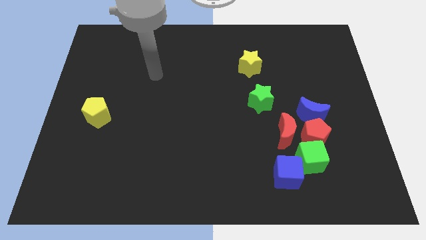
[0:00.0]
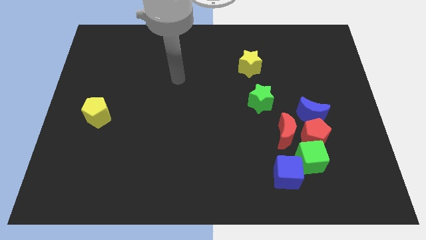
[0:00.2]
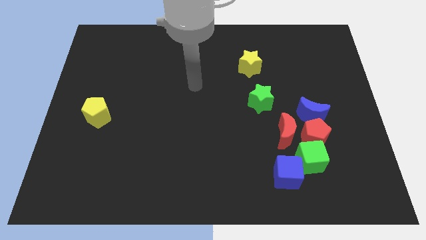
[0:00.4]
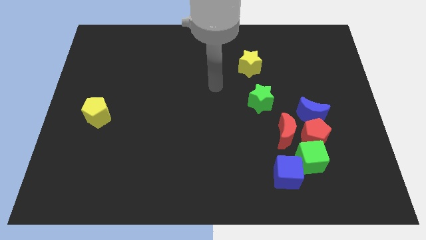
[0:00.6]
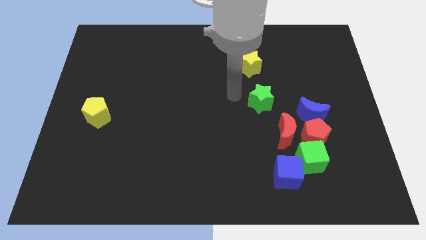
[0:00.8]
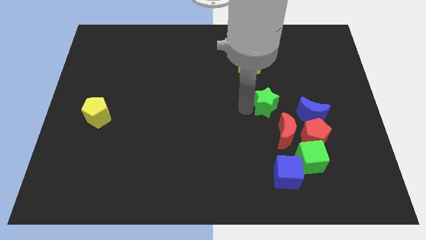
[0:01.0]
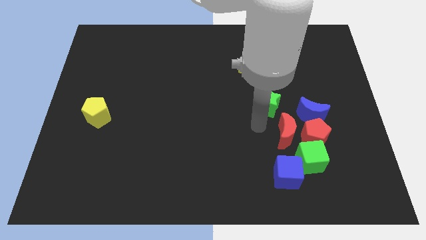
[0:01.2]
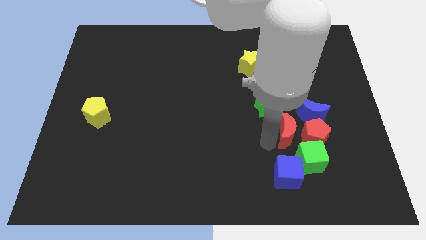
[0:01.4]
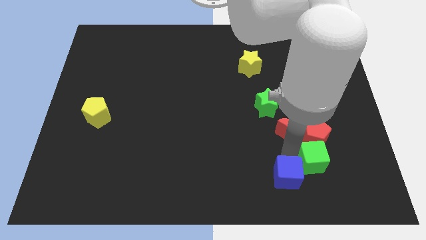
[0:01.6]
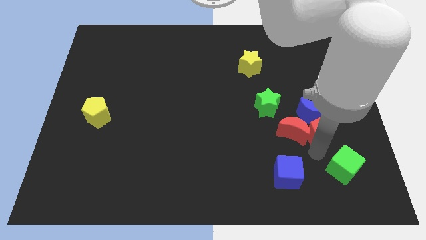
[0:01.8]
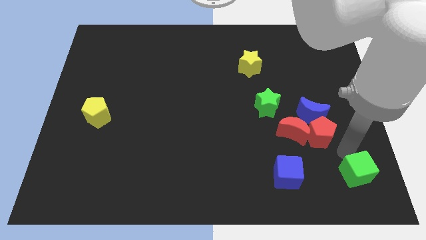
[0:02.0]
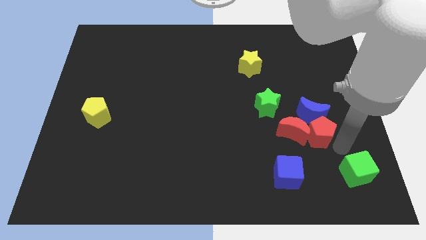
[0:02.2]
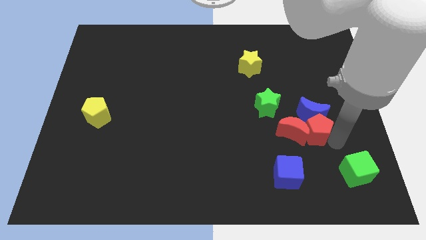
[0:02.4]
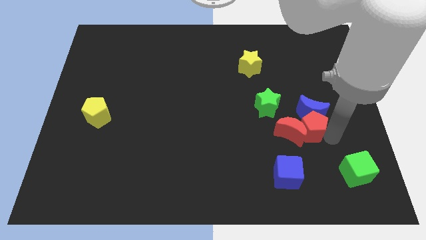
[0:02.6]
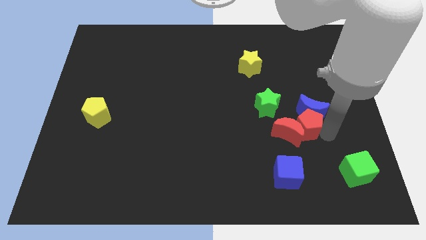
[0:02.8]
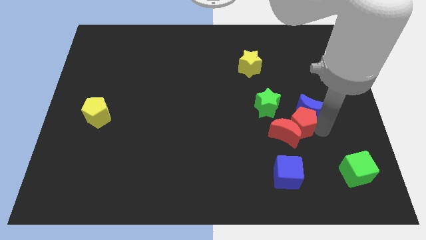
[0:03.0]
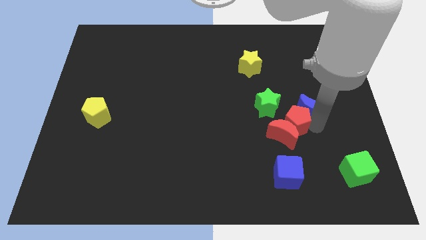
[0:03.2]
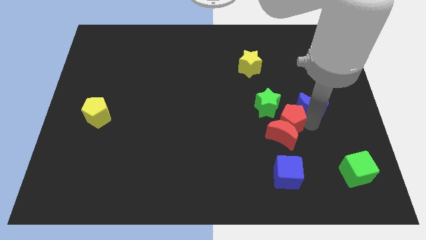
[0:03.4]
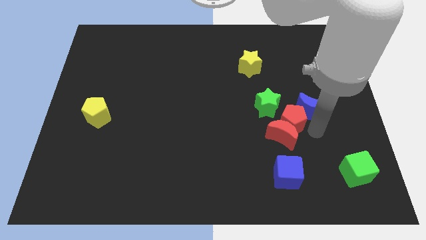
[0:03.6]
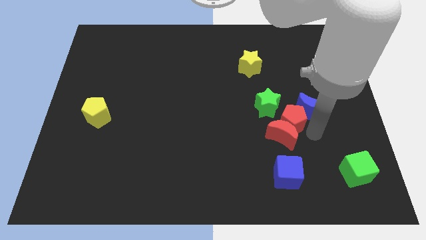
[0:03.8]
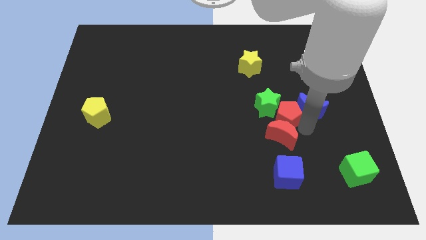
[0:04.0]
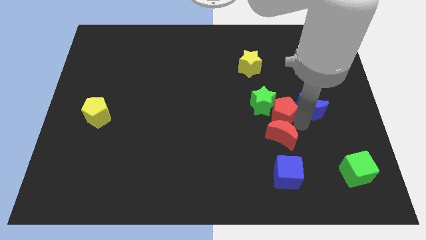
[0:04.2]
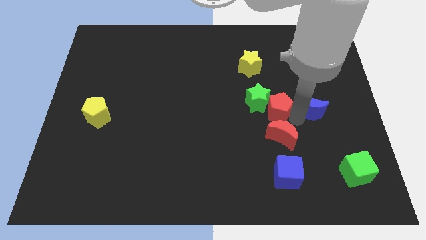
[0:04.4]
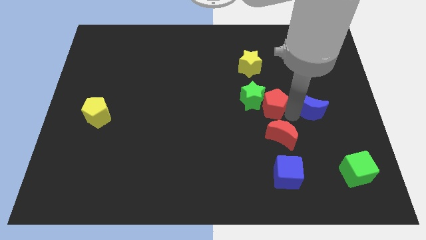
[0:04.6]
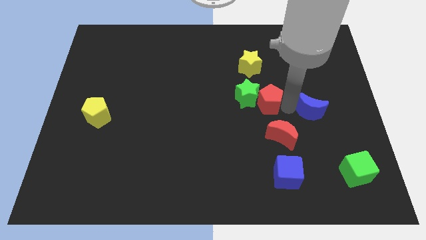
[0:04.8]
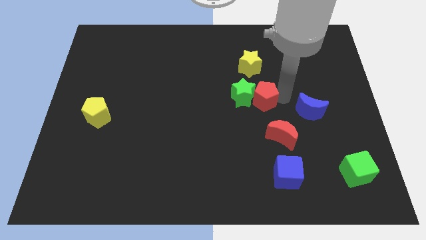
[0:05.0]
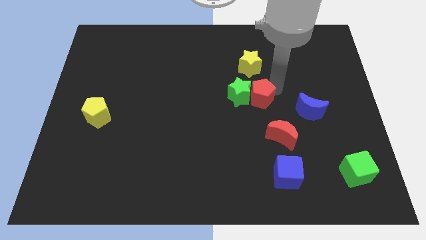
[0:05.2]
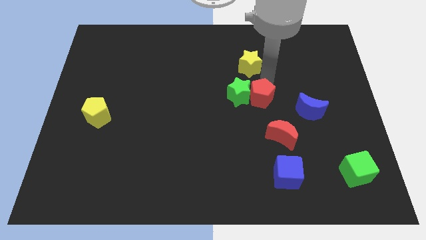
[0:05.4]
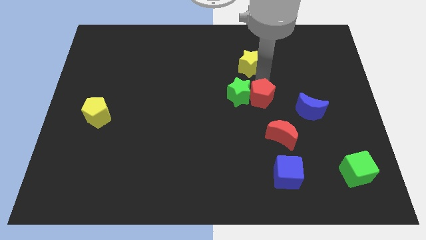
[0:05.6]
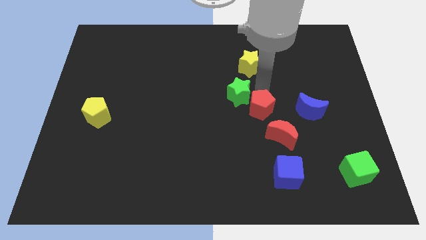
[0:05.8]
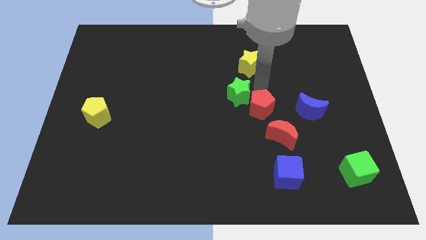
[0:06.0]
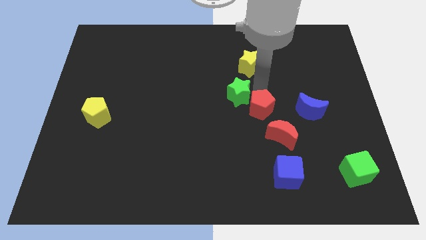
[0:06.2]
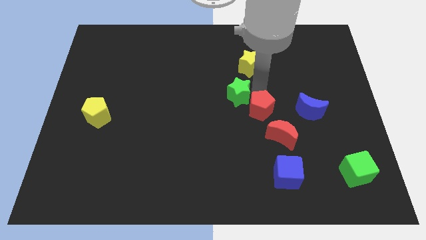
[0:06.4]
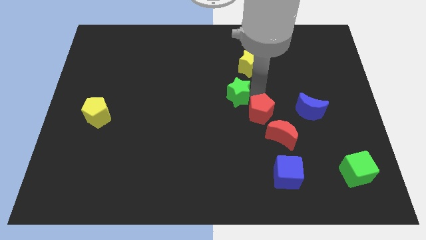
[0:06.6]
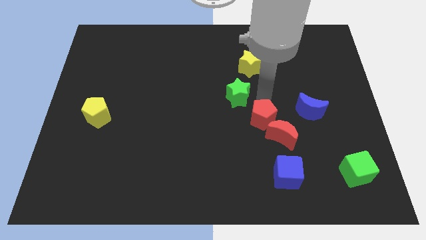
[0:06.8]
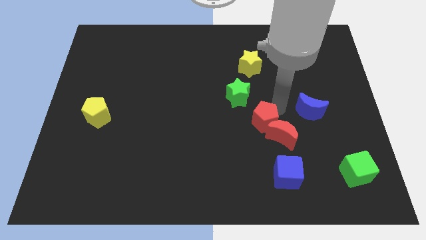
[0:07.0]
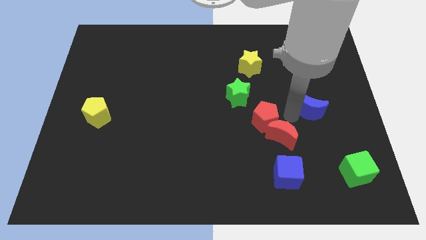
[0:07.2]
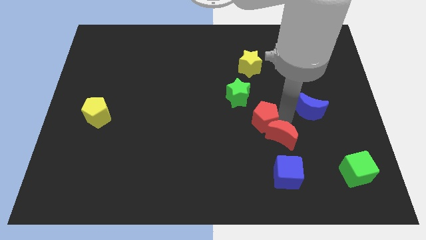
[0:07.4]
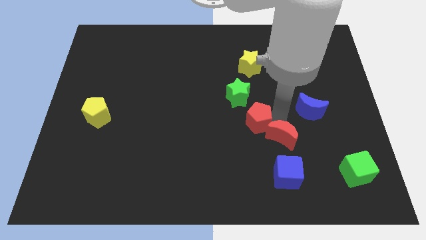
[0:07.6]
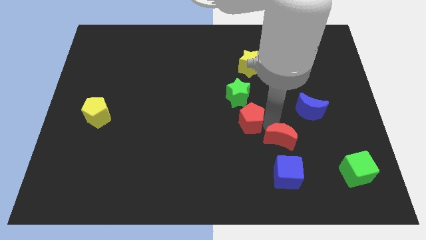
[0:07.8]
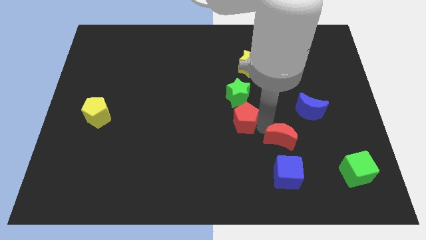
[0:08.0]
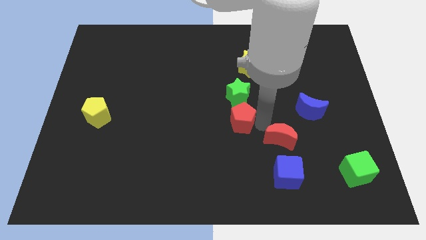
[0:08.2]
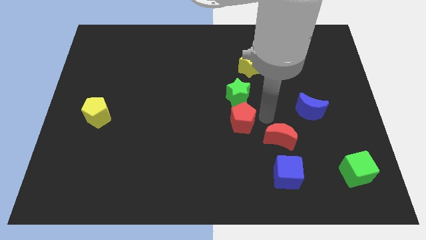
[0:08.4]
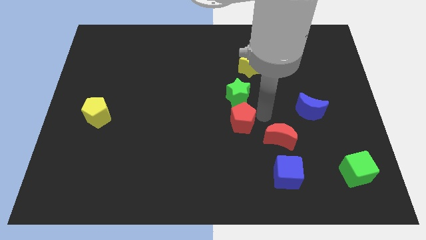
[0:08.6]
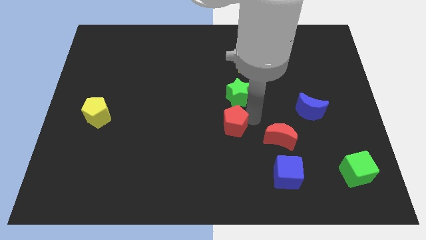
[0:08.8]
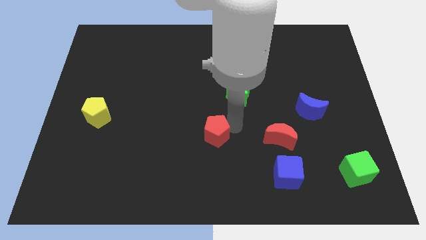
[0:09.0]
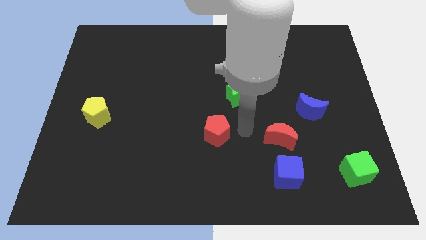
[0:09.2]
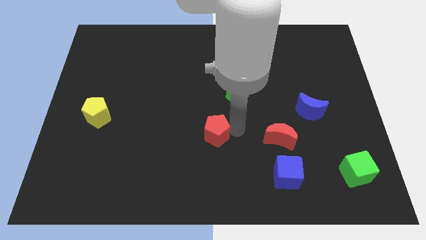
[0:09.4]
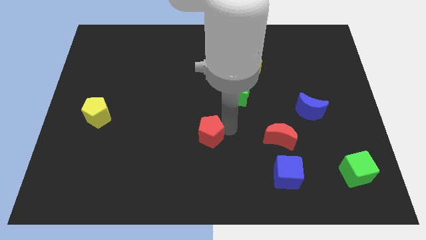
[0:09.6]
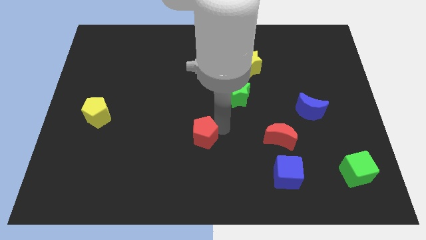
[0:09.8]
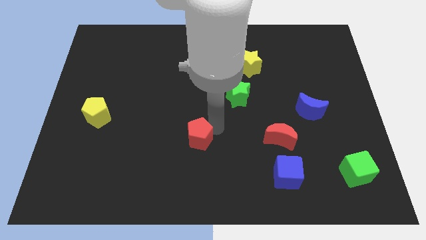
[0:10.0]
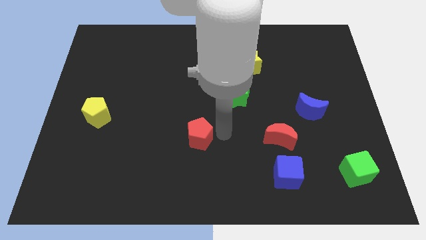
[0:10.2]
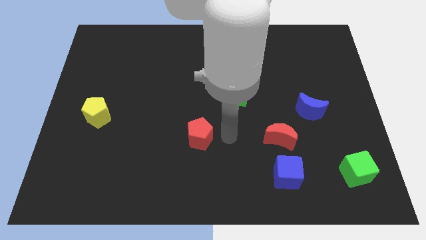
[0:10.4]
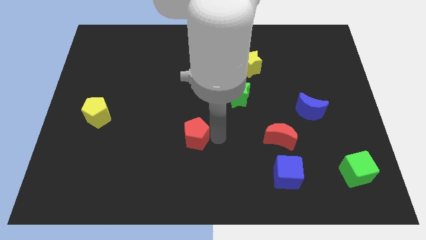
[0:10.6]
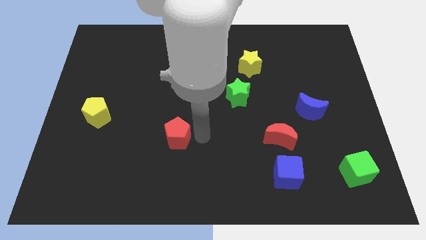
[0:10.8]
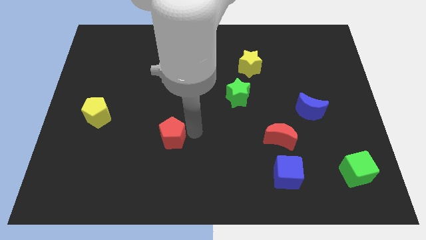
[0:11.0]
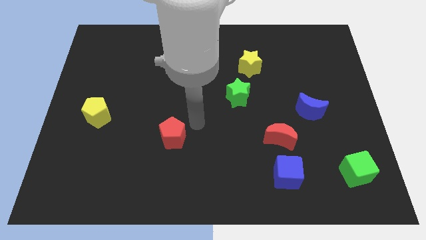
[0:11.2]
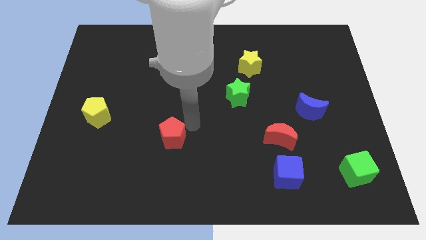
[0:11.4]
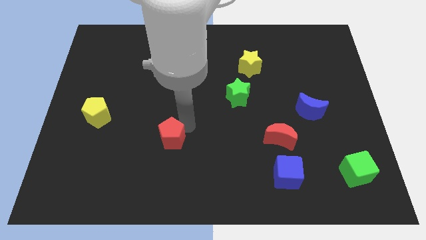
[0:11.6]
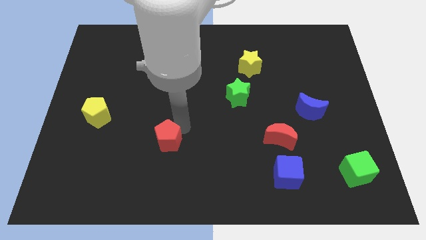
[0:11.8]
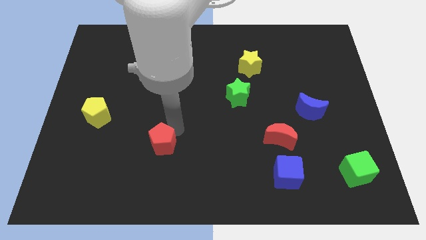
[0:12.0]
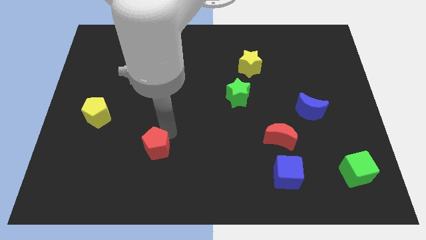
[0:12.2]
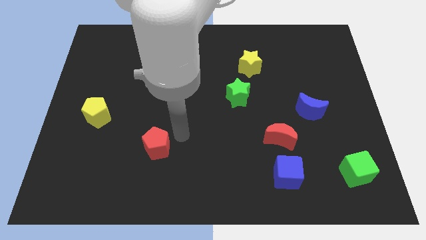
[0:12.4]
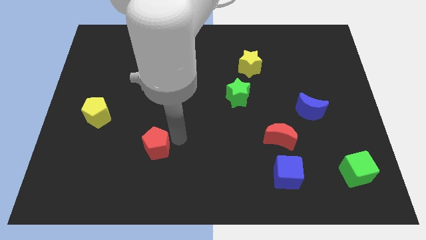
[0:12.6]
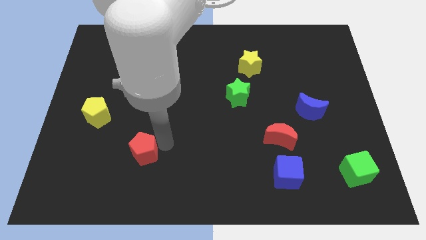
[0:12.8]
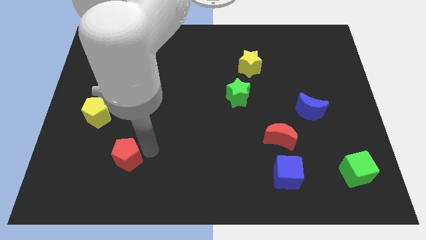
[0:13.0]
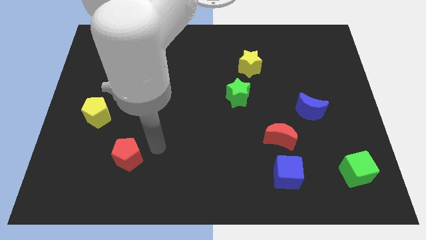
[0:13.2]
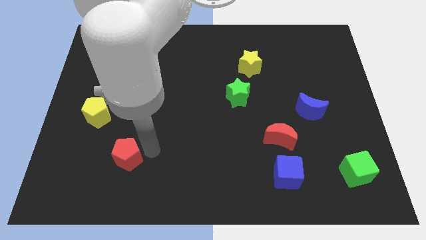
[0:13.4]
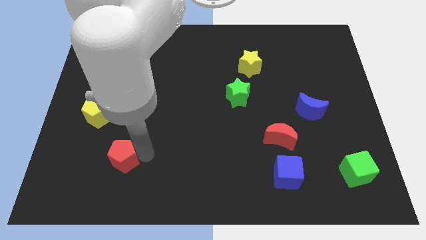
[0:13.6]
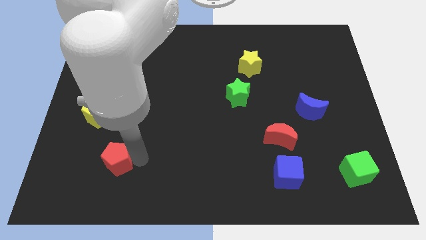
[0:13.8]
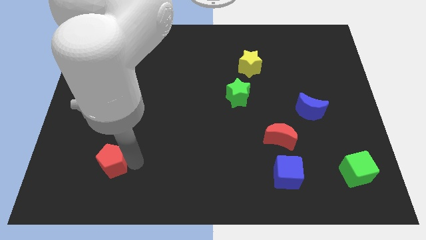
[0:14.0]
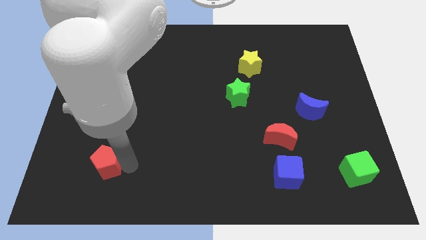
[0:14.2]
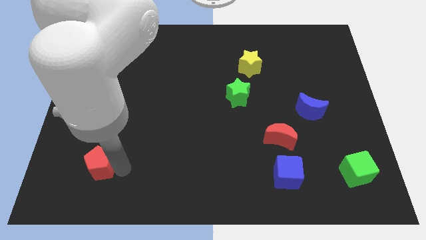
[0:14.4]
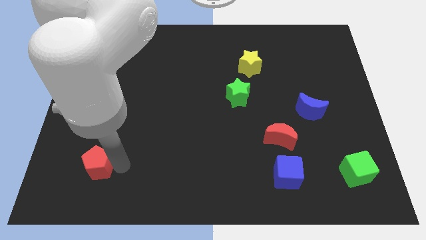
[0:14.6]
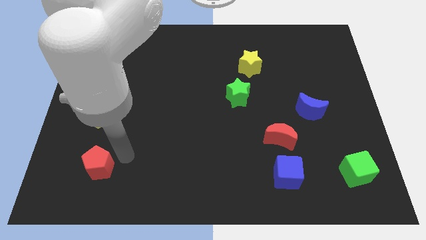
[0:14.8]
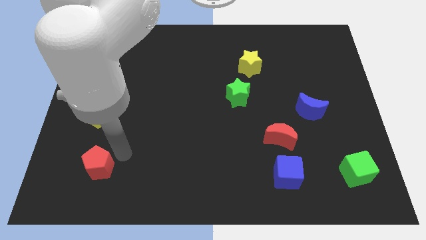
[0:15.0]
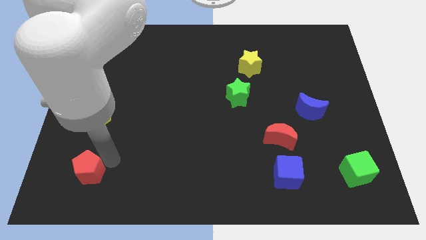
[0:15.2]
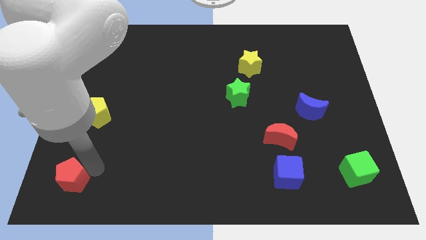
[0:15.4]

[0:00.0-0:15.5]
put the red pentagon to the bottom left
